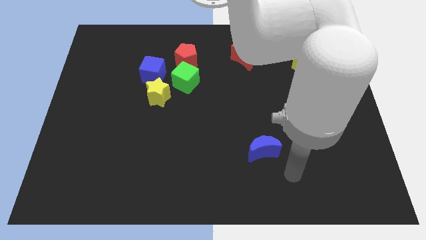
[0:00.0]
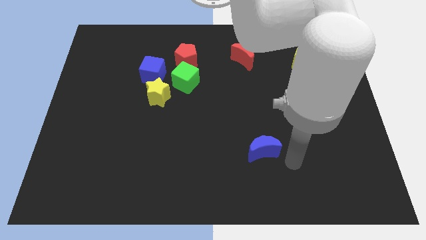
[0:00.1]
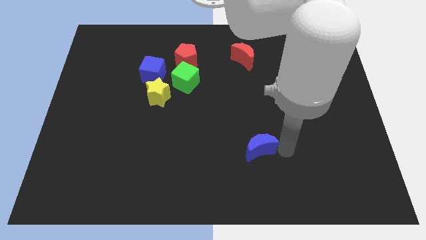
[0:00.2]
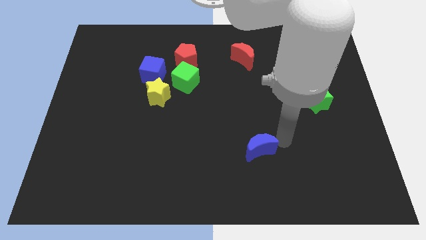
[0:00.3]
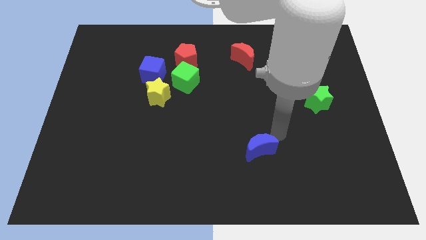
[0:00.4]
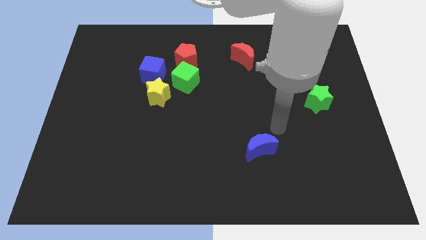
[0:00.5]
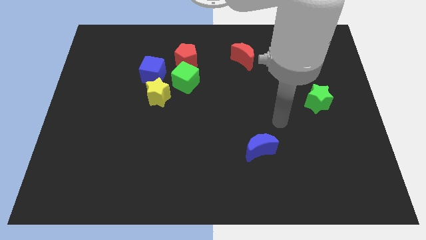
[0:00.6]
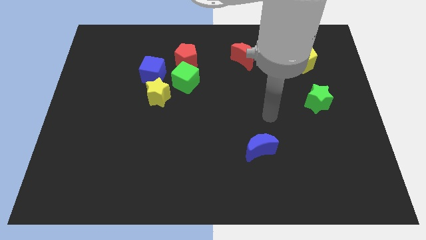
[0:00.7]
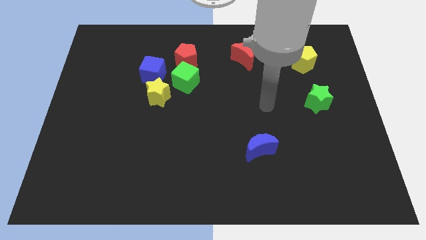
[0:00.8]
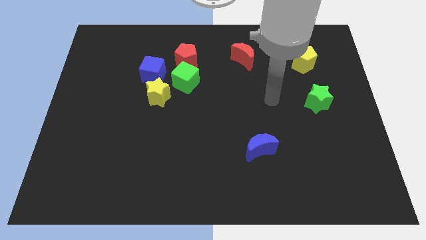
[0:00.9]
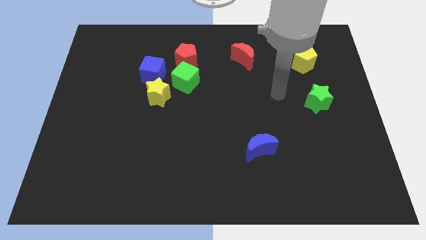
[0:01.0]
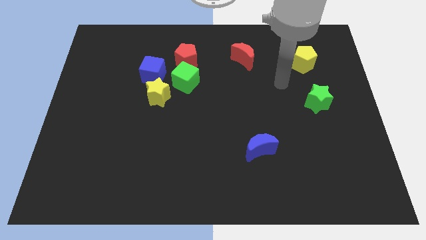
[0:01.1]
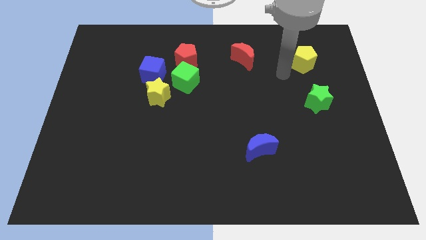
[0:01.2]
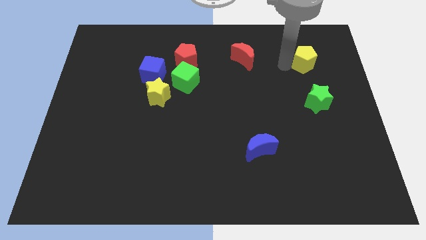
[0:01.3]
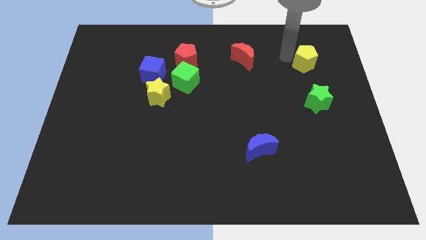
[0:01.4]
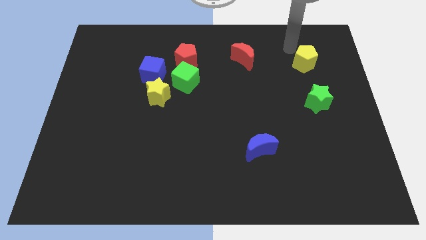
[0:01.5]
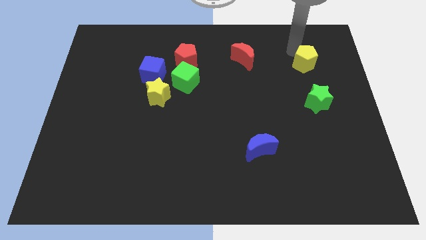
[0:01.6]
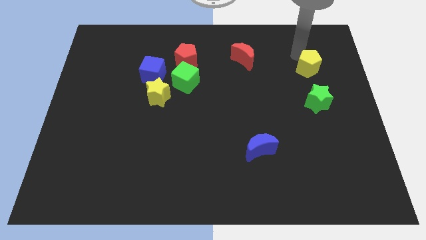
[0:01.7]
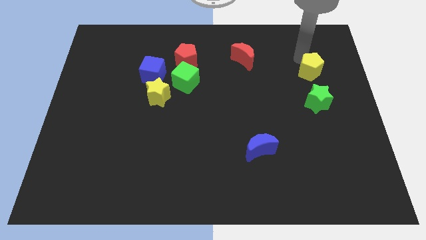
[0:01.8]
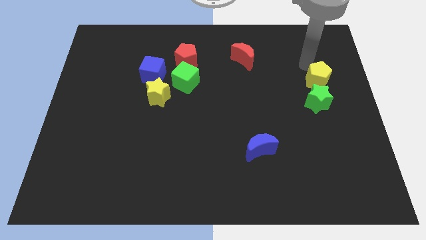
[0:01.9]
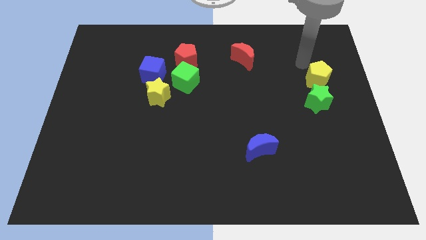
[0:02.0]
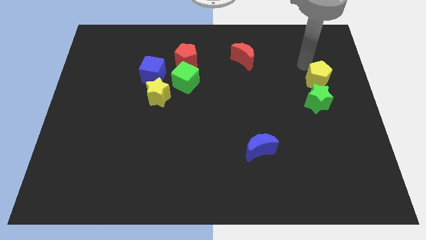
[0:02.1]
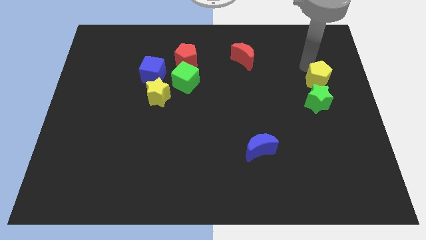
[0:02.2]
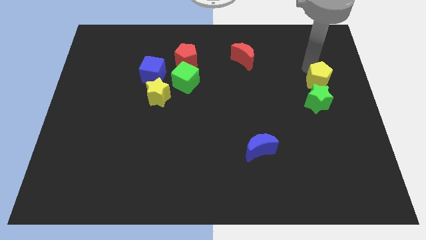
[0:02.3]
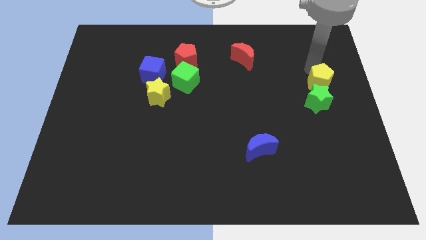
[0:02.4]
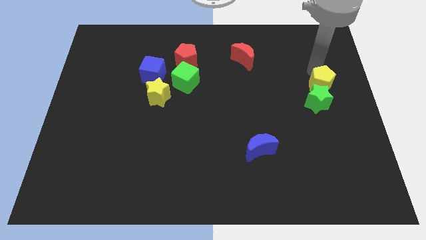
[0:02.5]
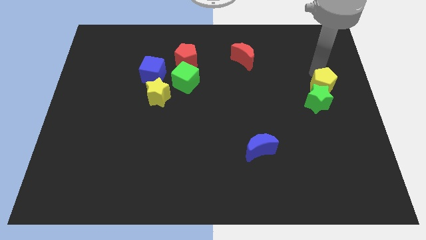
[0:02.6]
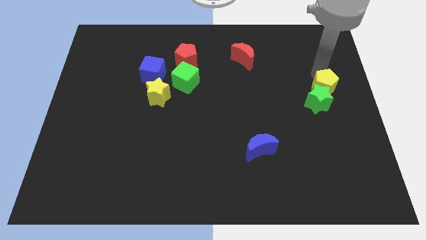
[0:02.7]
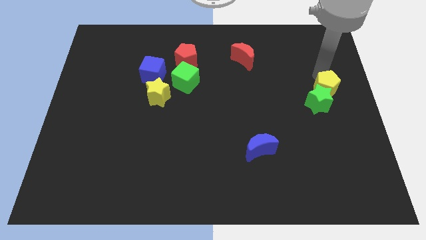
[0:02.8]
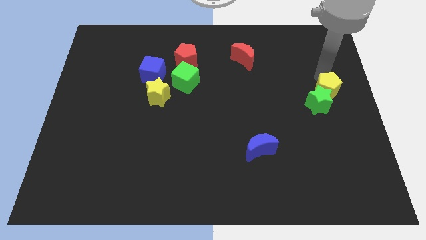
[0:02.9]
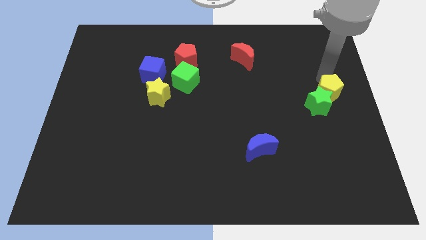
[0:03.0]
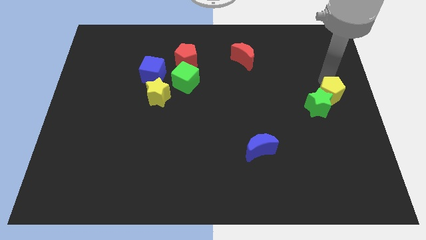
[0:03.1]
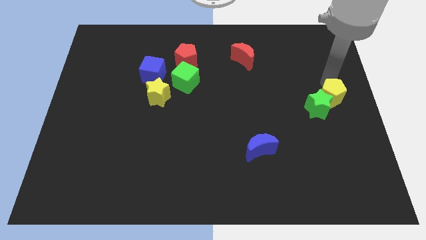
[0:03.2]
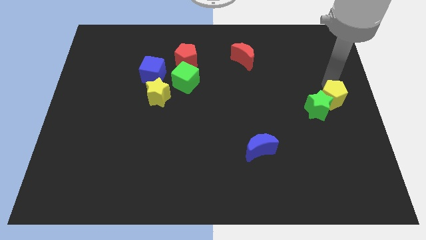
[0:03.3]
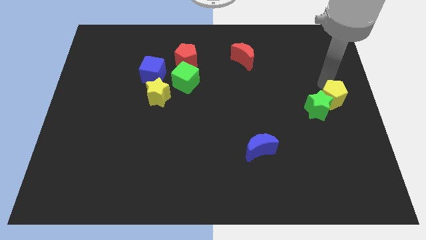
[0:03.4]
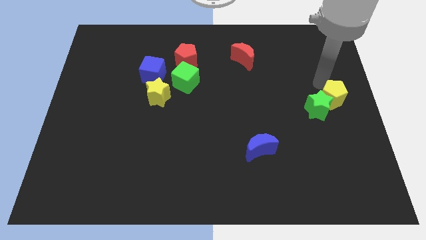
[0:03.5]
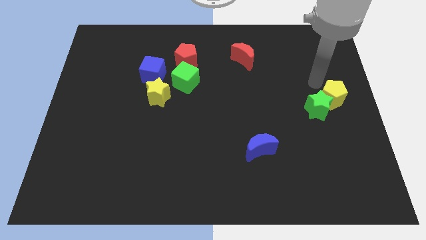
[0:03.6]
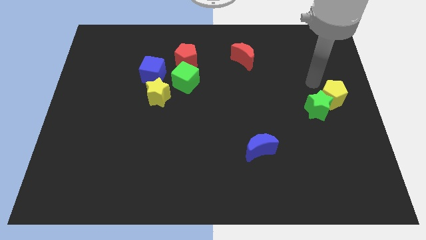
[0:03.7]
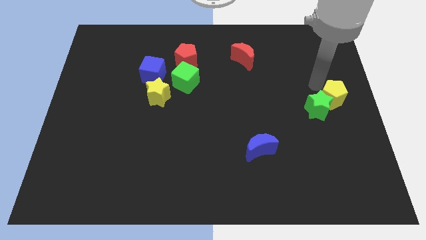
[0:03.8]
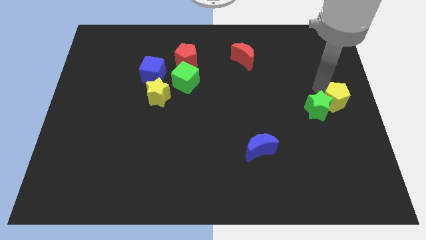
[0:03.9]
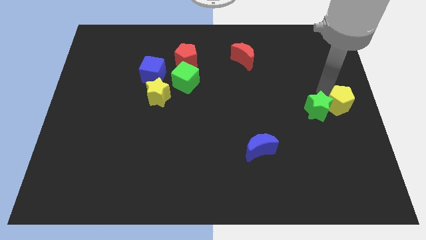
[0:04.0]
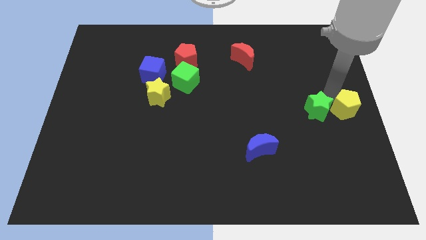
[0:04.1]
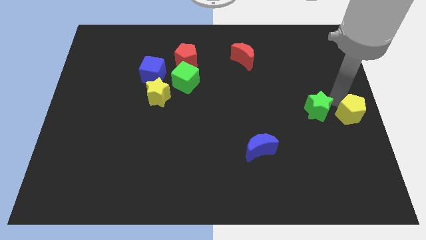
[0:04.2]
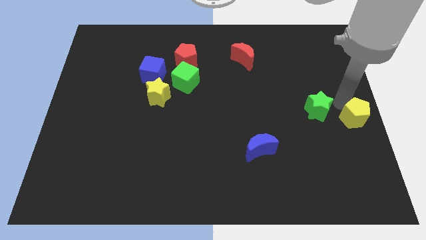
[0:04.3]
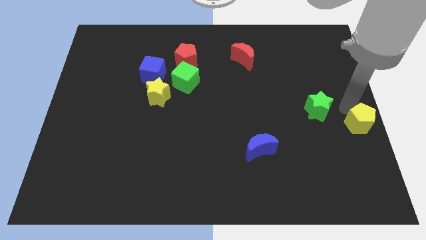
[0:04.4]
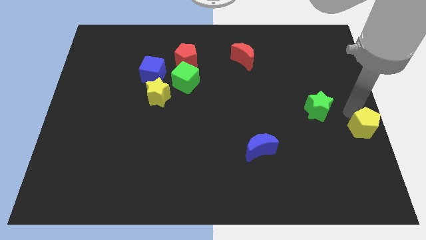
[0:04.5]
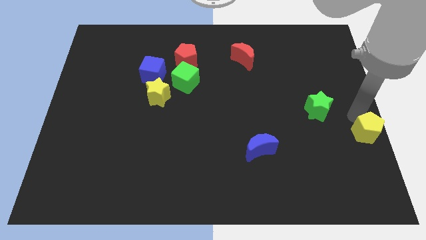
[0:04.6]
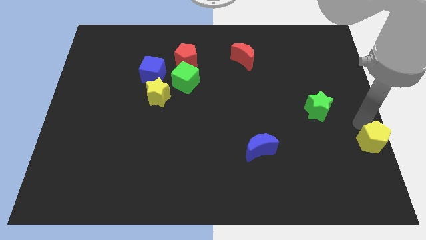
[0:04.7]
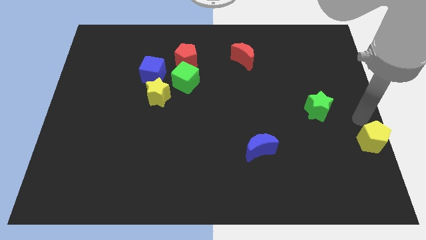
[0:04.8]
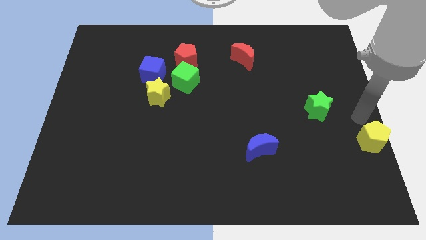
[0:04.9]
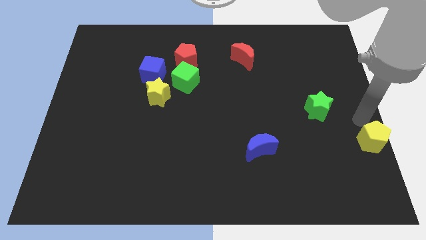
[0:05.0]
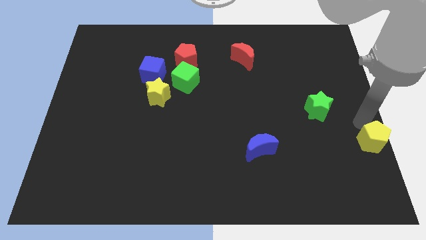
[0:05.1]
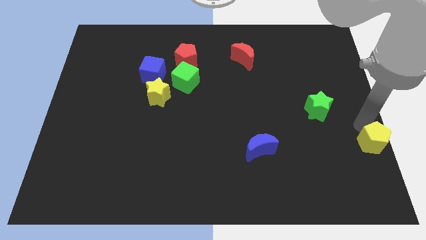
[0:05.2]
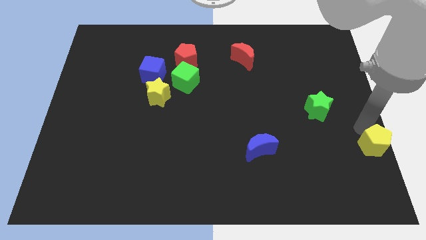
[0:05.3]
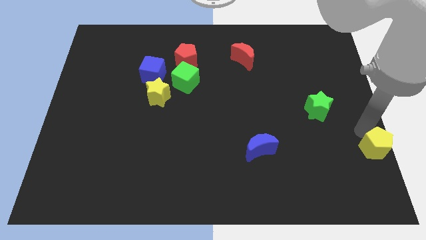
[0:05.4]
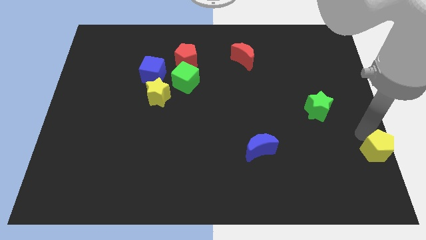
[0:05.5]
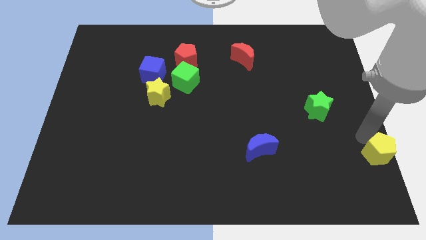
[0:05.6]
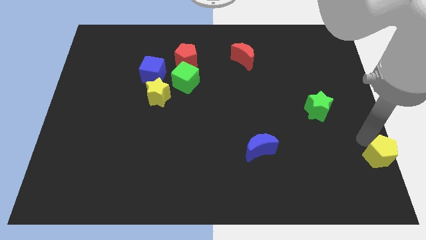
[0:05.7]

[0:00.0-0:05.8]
push the yellow pentagon to the bottom right of the board

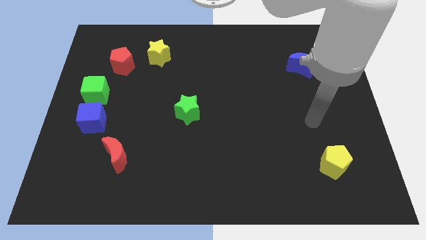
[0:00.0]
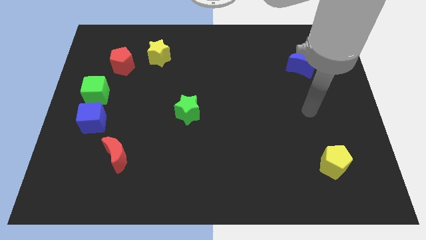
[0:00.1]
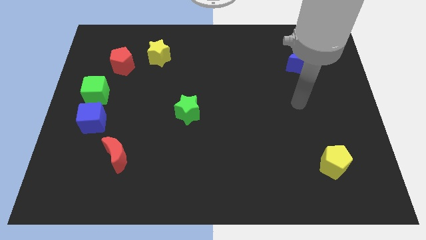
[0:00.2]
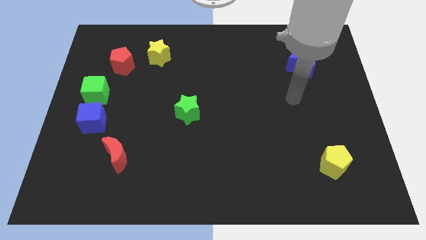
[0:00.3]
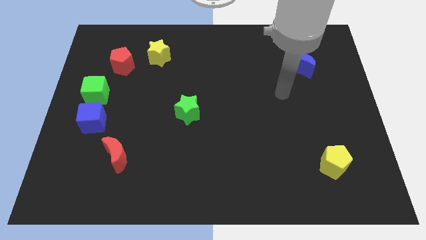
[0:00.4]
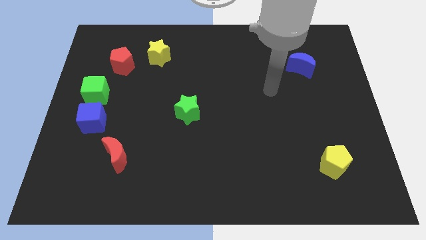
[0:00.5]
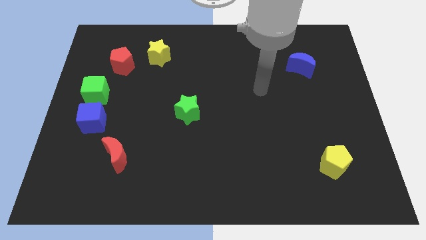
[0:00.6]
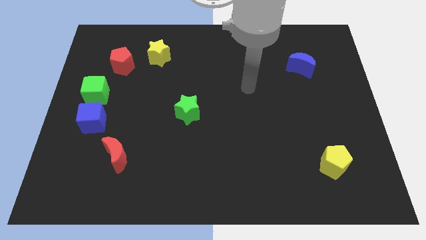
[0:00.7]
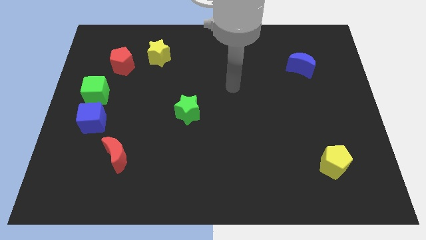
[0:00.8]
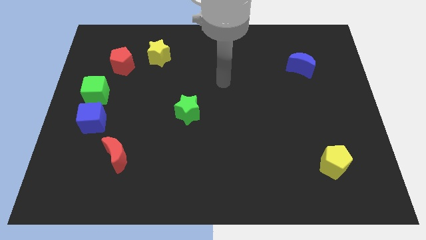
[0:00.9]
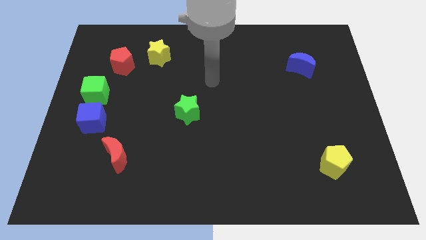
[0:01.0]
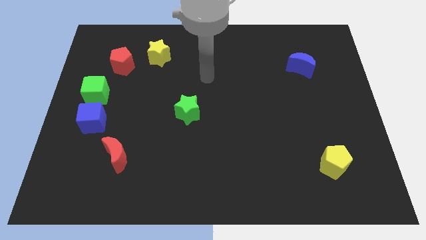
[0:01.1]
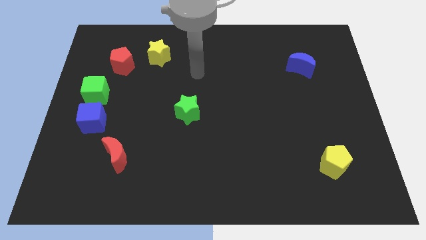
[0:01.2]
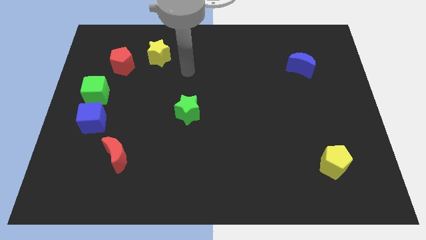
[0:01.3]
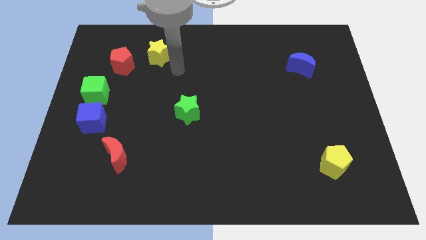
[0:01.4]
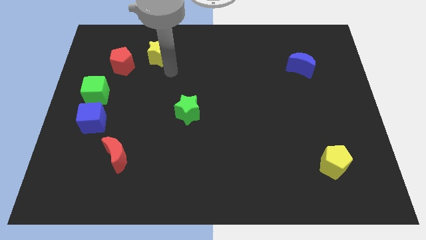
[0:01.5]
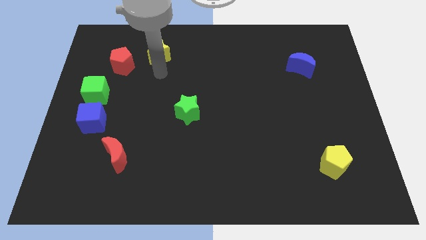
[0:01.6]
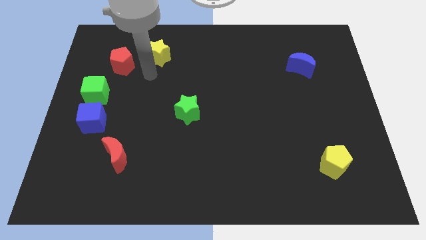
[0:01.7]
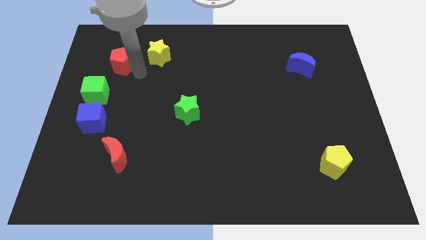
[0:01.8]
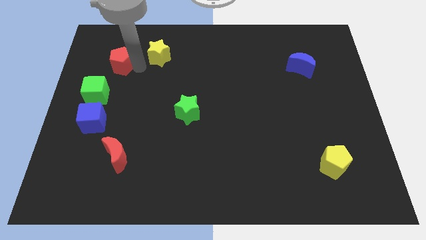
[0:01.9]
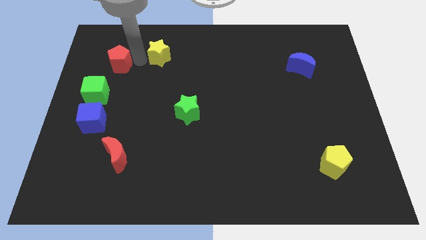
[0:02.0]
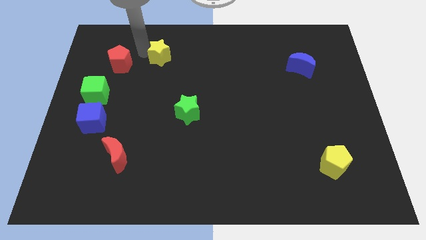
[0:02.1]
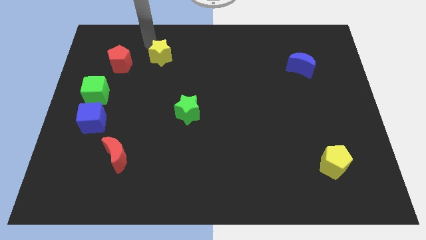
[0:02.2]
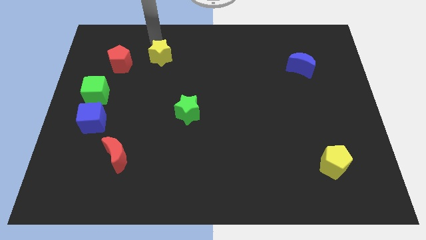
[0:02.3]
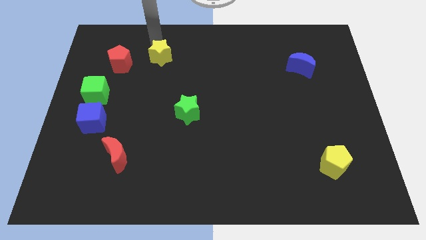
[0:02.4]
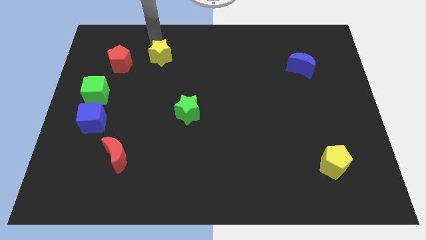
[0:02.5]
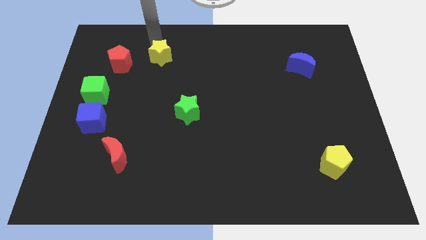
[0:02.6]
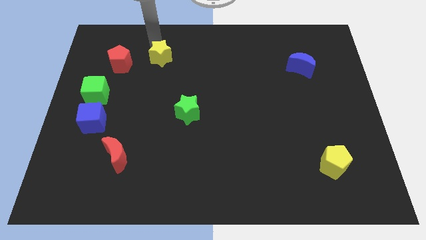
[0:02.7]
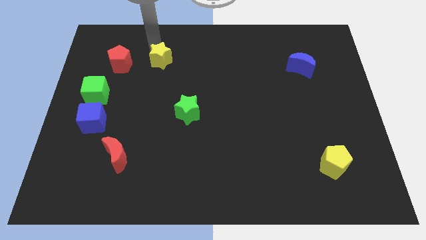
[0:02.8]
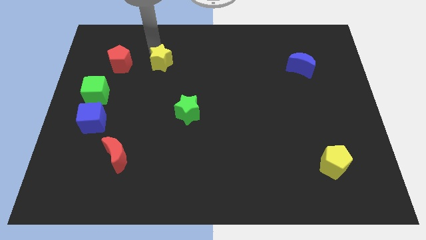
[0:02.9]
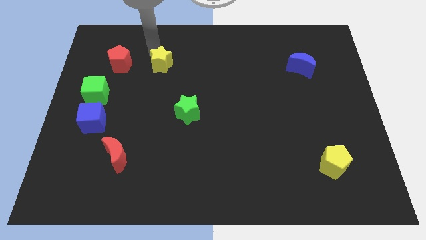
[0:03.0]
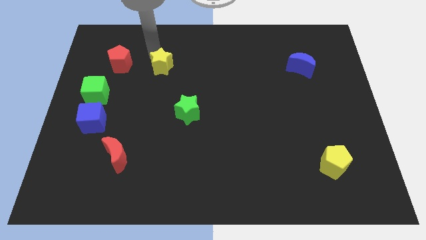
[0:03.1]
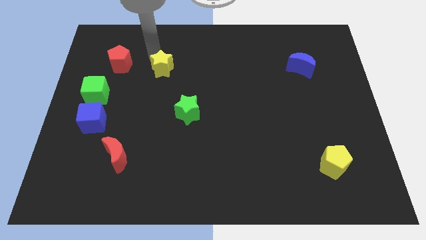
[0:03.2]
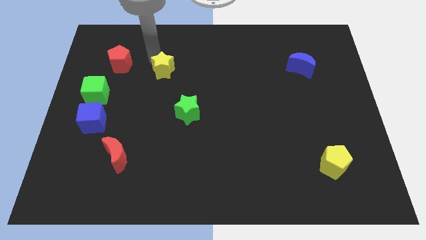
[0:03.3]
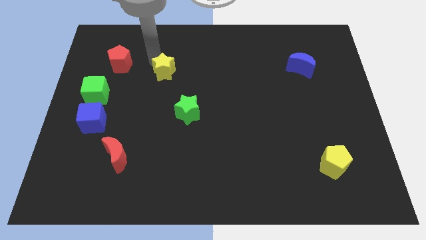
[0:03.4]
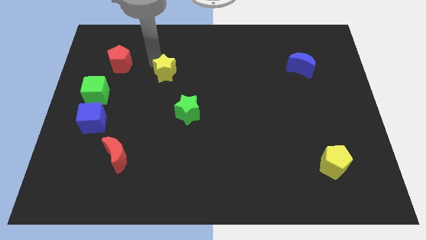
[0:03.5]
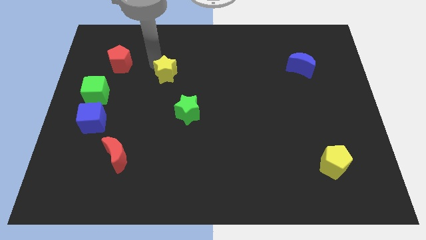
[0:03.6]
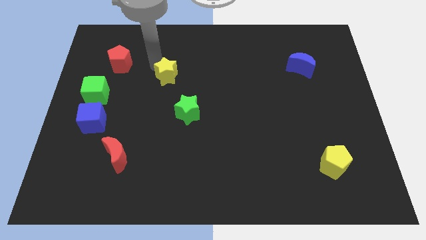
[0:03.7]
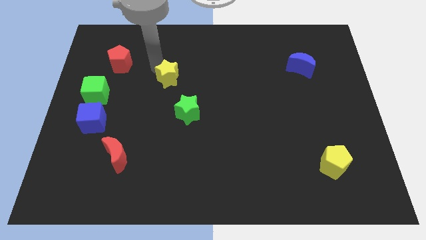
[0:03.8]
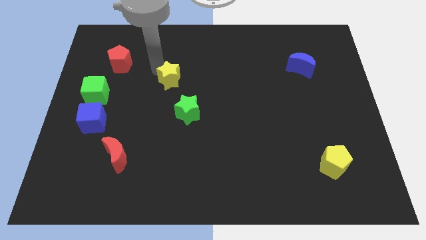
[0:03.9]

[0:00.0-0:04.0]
slide the yellow star to the middle of the board
